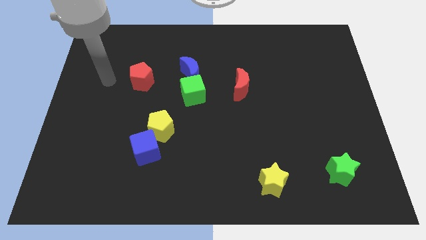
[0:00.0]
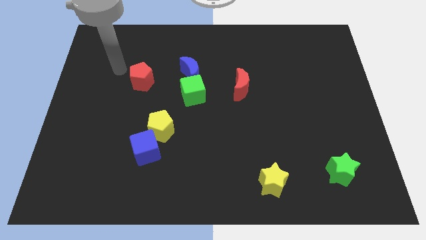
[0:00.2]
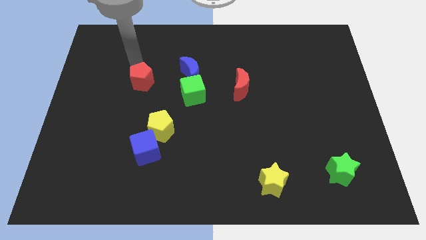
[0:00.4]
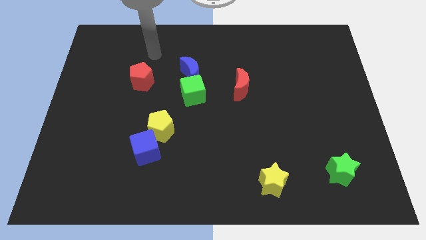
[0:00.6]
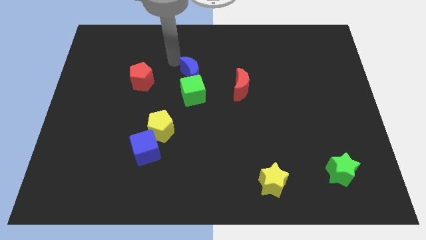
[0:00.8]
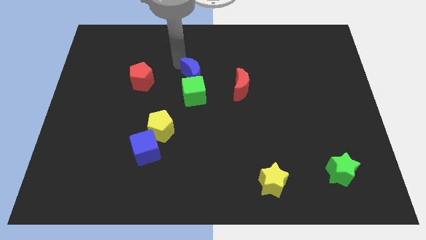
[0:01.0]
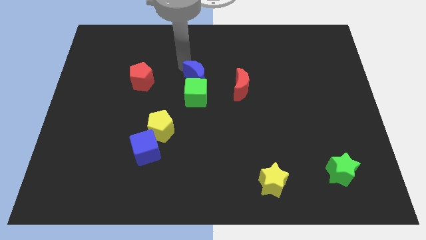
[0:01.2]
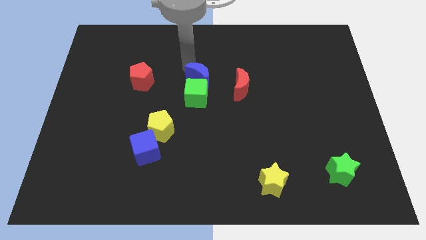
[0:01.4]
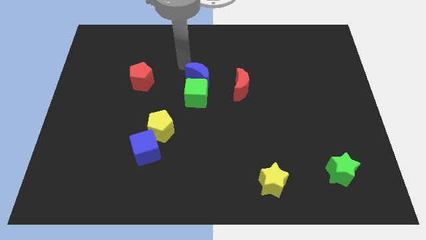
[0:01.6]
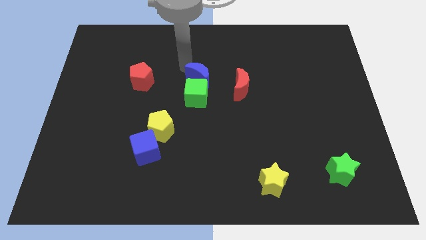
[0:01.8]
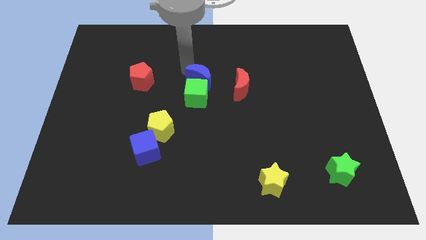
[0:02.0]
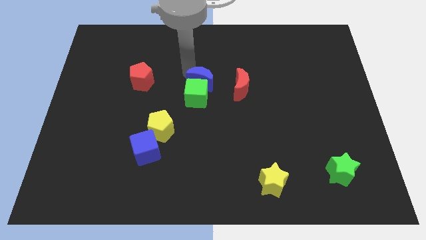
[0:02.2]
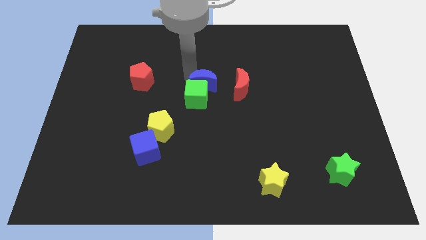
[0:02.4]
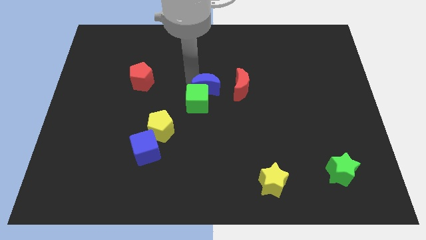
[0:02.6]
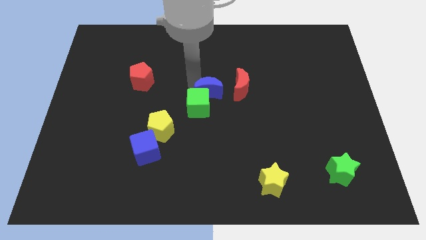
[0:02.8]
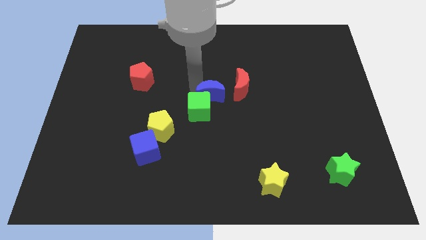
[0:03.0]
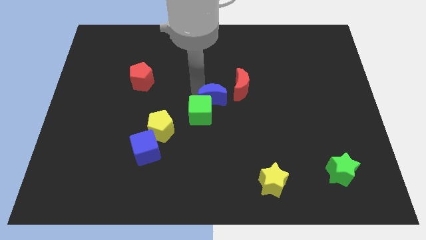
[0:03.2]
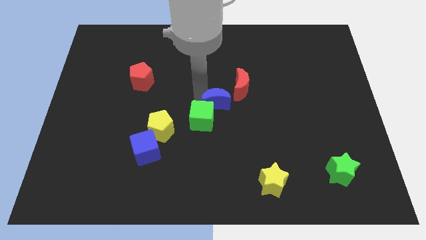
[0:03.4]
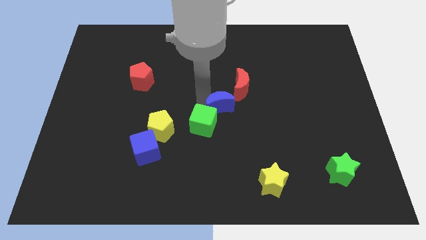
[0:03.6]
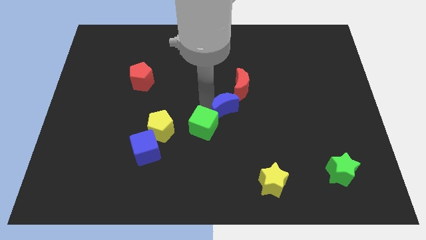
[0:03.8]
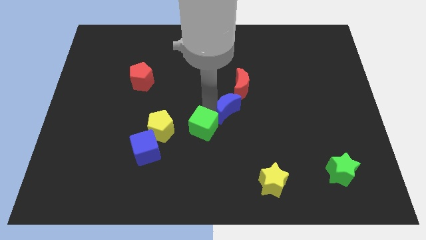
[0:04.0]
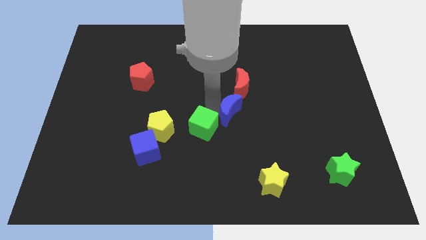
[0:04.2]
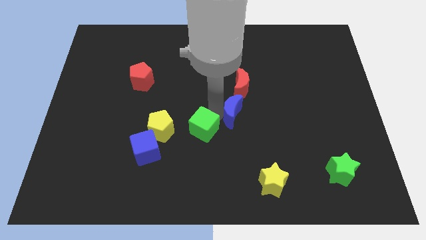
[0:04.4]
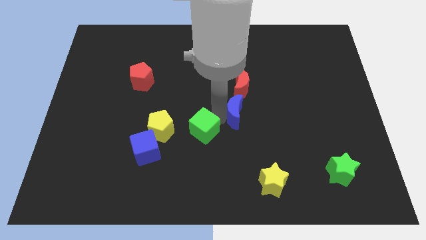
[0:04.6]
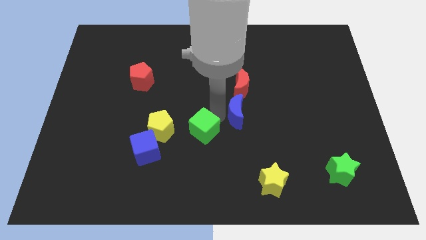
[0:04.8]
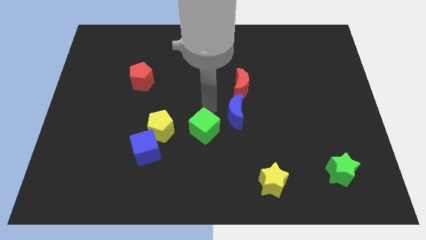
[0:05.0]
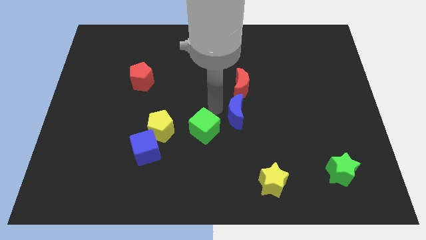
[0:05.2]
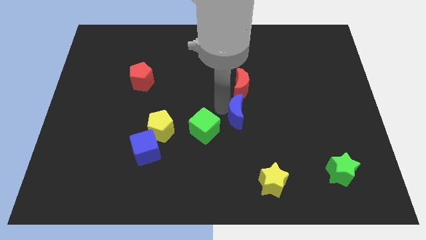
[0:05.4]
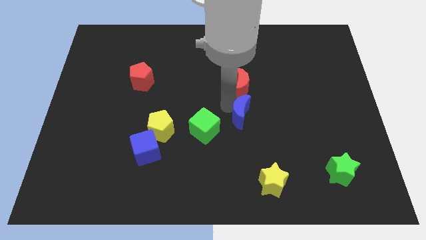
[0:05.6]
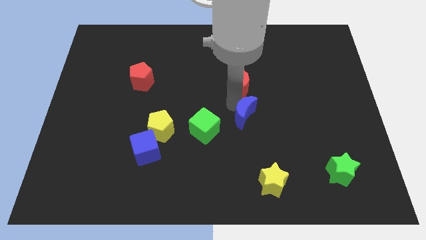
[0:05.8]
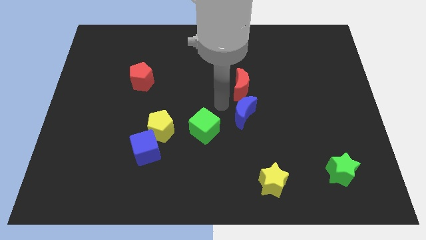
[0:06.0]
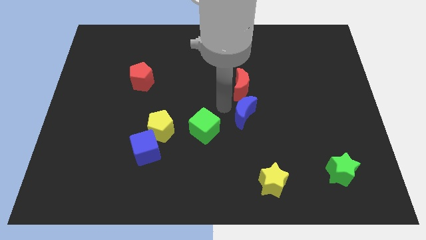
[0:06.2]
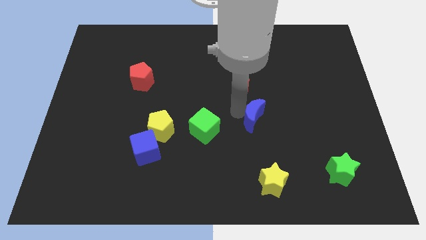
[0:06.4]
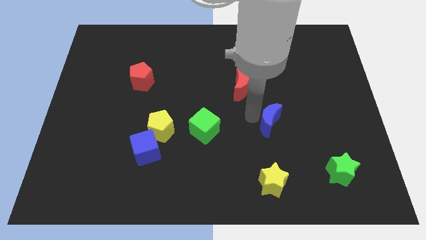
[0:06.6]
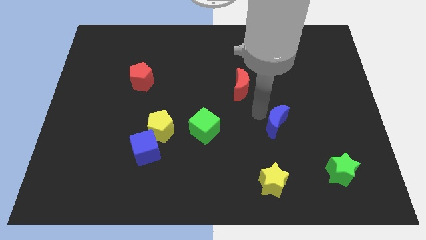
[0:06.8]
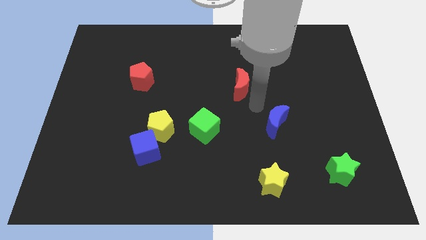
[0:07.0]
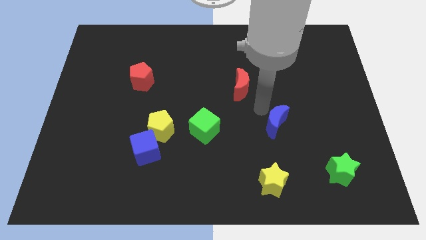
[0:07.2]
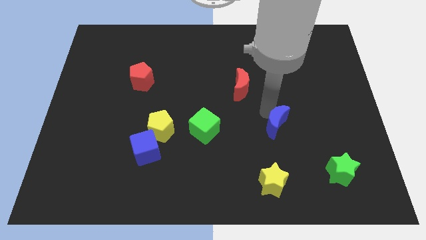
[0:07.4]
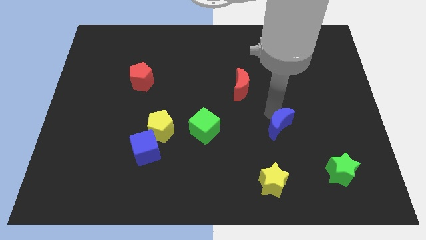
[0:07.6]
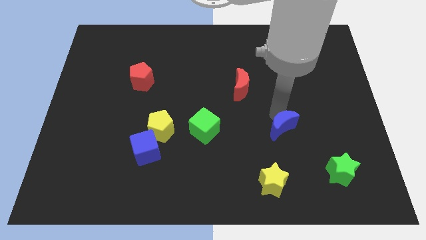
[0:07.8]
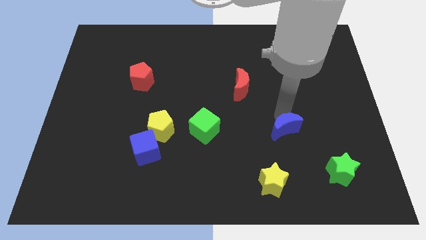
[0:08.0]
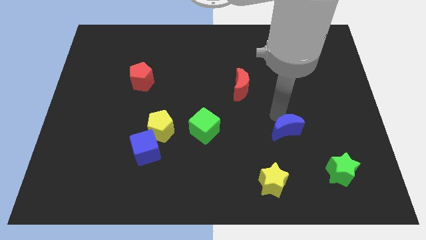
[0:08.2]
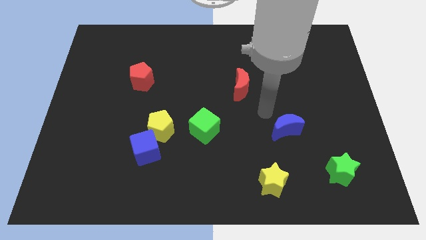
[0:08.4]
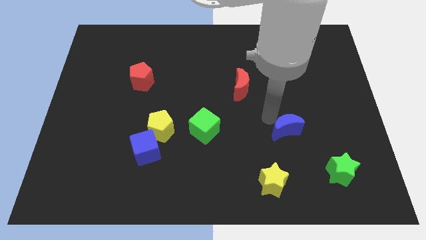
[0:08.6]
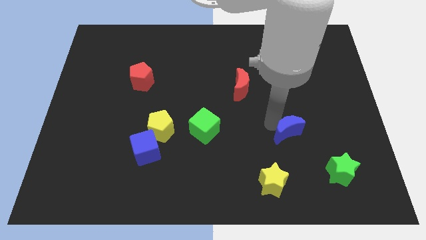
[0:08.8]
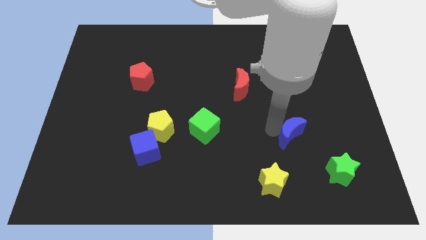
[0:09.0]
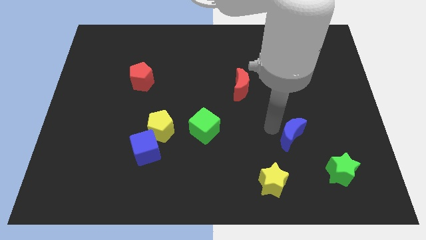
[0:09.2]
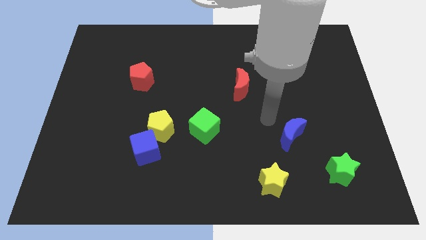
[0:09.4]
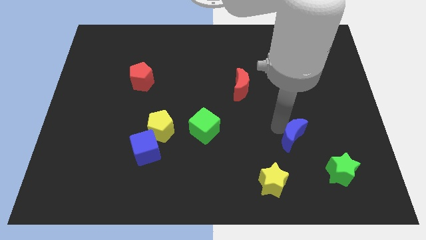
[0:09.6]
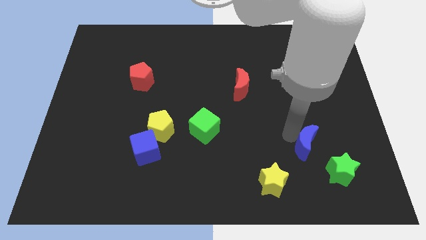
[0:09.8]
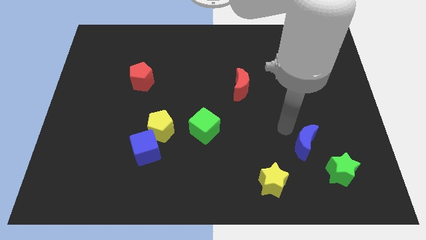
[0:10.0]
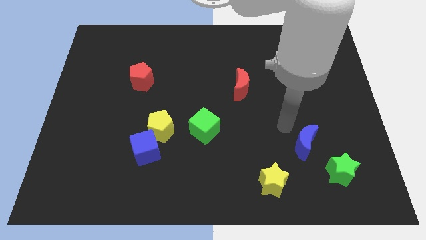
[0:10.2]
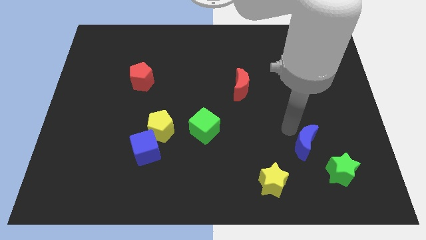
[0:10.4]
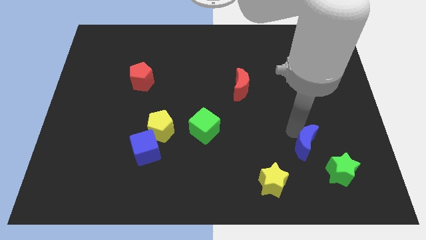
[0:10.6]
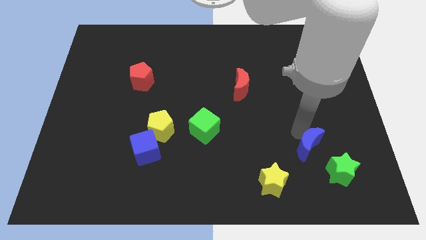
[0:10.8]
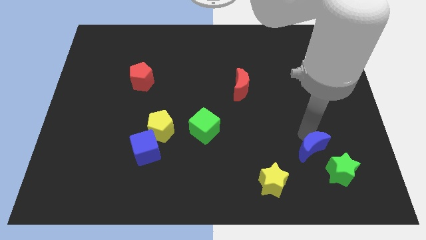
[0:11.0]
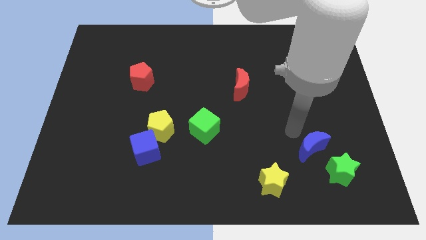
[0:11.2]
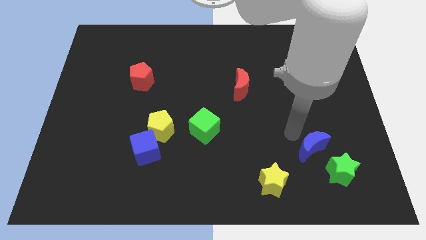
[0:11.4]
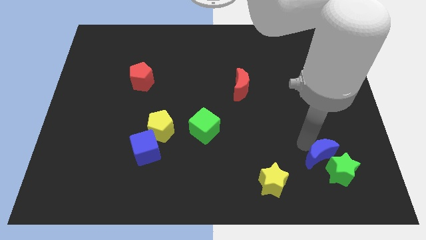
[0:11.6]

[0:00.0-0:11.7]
put the blue moon close to the green star

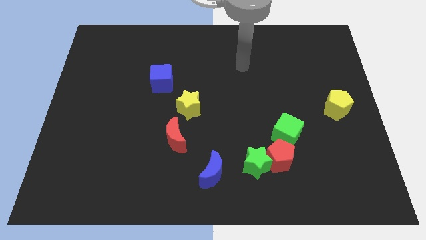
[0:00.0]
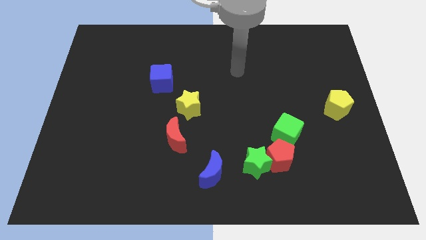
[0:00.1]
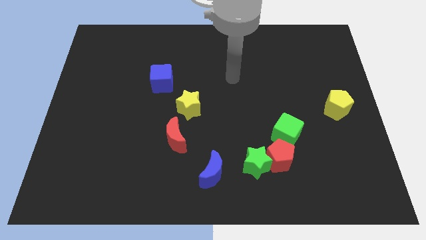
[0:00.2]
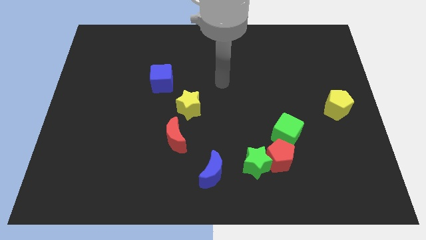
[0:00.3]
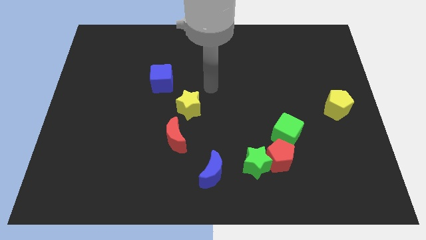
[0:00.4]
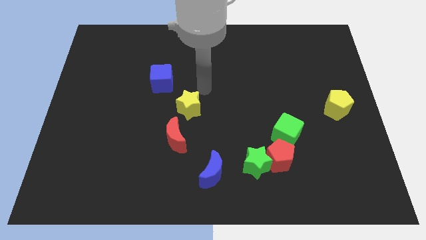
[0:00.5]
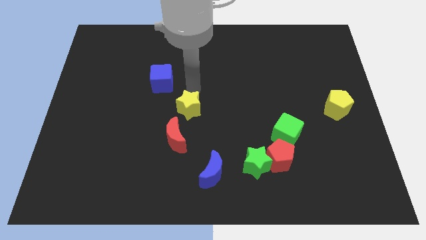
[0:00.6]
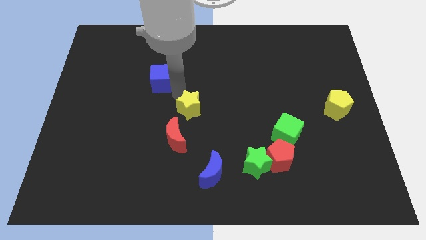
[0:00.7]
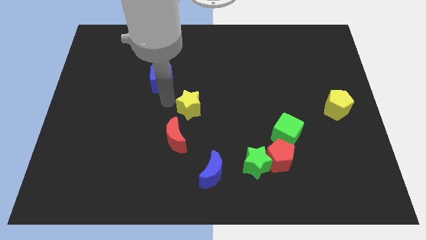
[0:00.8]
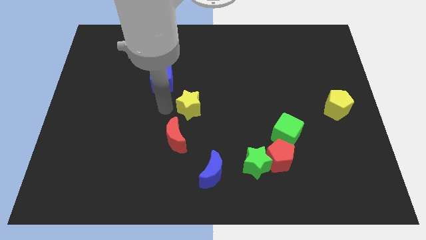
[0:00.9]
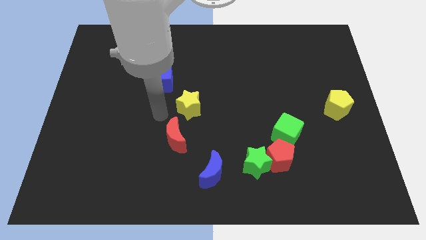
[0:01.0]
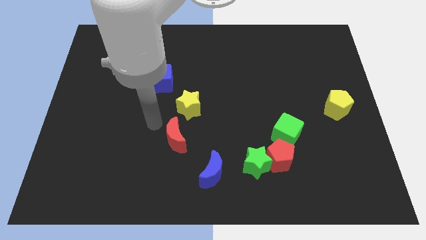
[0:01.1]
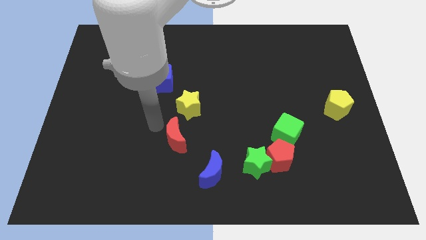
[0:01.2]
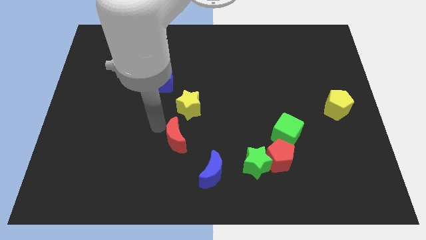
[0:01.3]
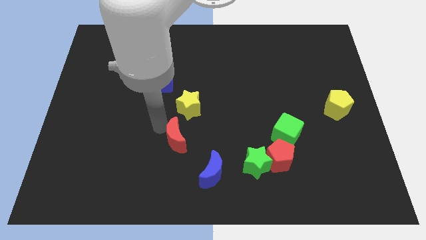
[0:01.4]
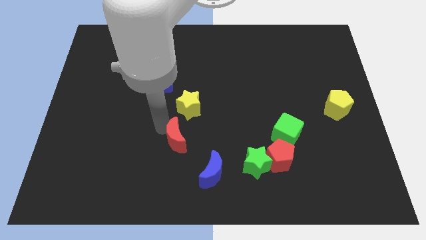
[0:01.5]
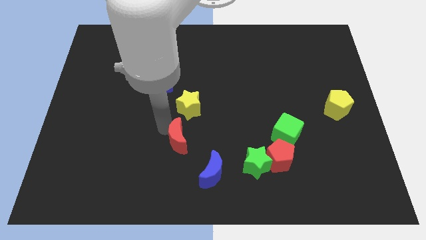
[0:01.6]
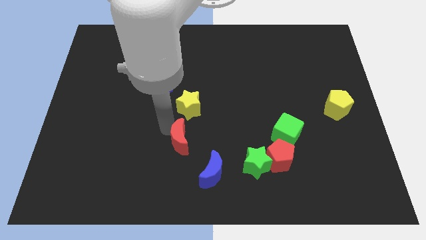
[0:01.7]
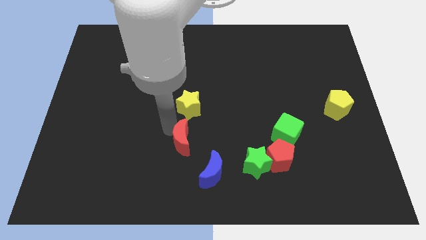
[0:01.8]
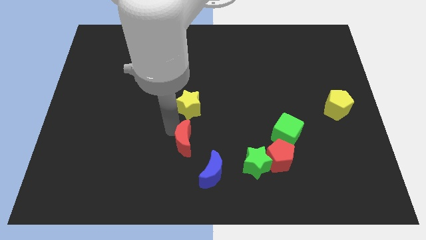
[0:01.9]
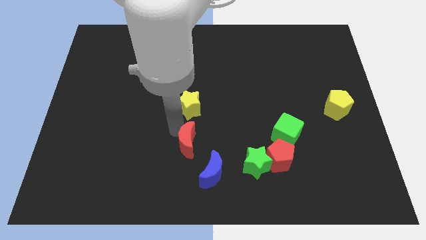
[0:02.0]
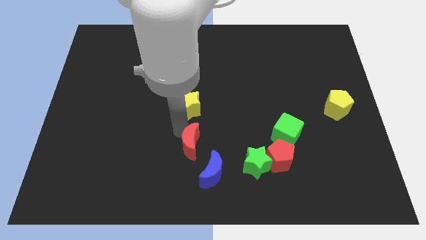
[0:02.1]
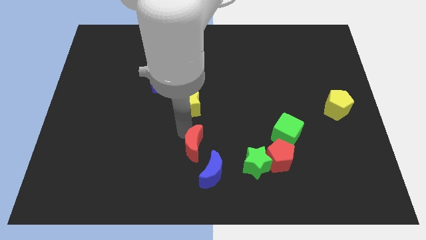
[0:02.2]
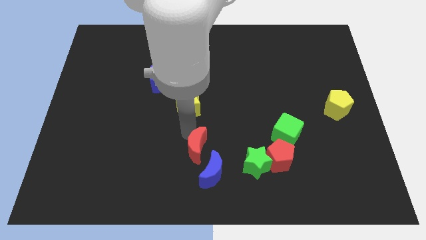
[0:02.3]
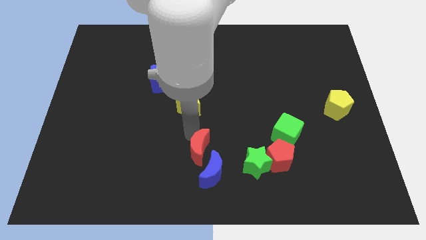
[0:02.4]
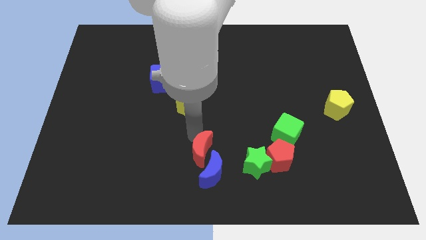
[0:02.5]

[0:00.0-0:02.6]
slide the red moon towards the blue moon
